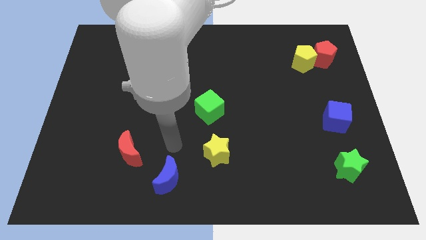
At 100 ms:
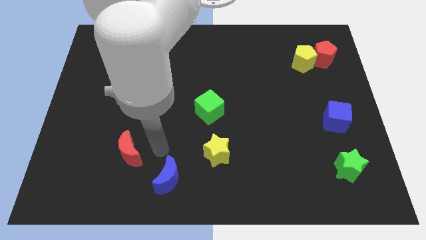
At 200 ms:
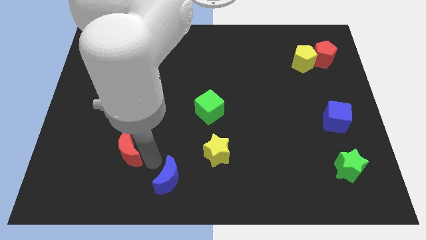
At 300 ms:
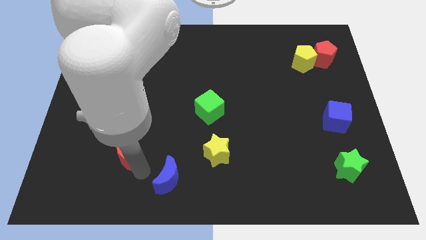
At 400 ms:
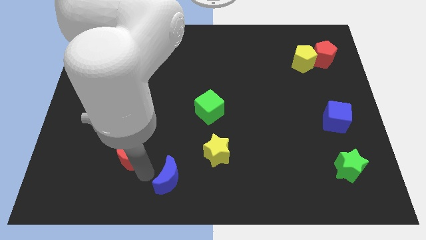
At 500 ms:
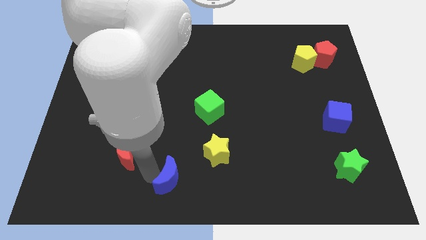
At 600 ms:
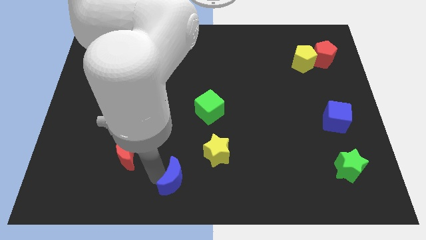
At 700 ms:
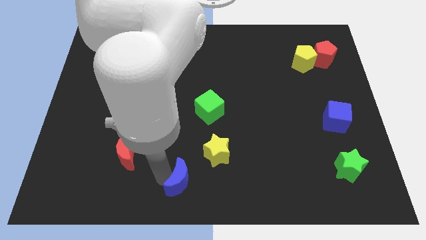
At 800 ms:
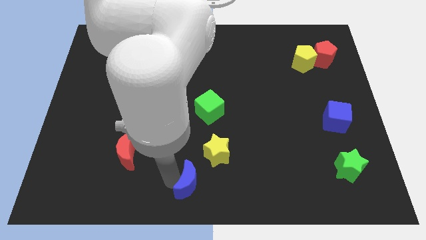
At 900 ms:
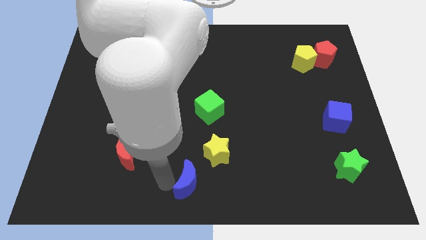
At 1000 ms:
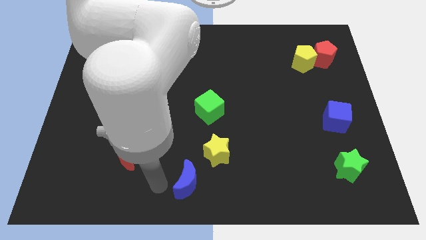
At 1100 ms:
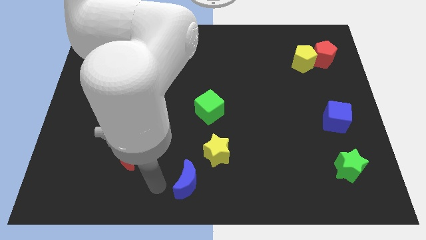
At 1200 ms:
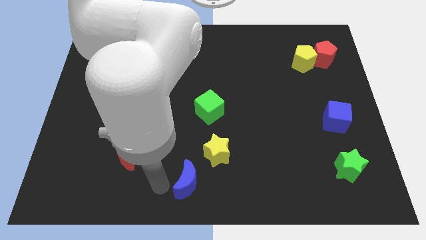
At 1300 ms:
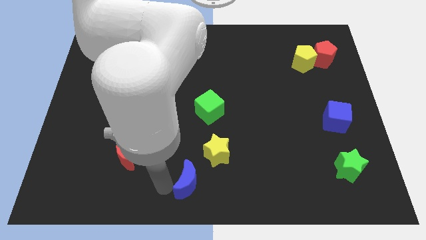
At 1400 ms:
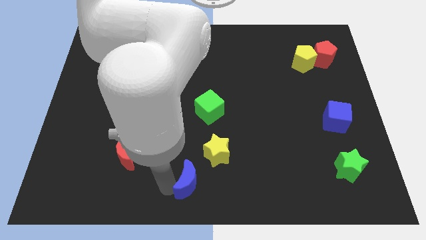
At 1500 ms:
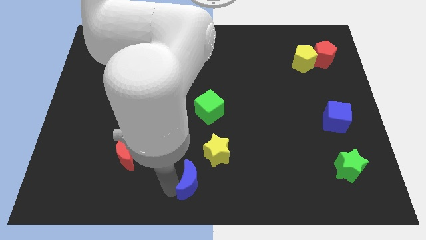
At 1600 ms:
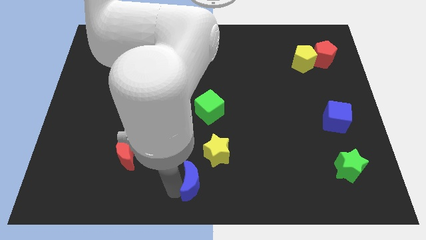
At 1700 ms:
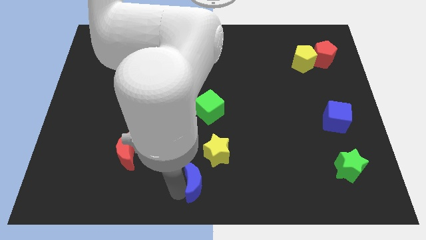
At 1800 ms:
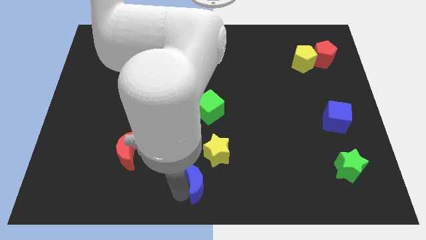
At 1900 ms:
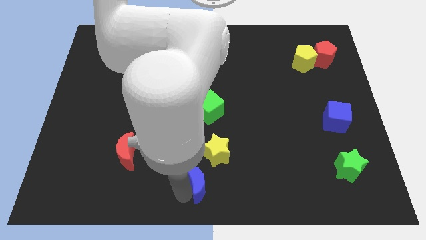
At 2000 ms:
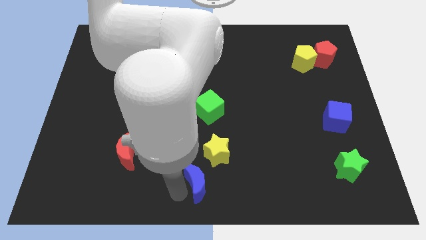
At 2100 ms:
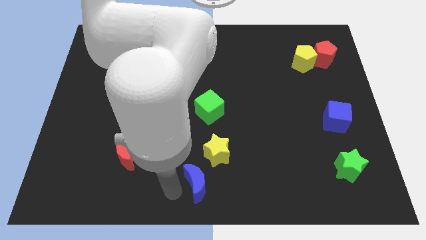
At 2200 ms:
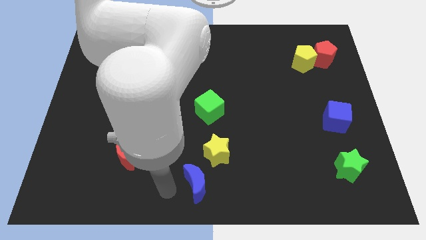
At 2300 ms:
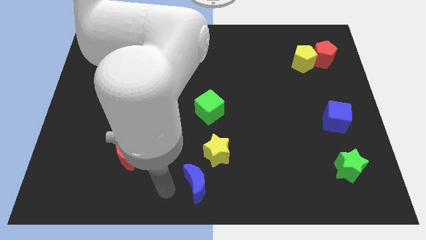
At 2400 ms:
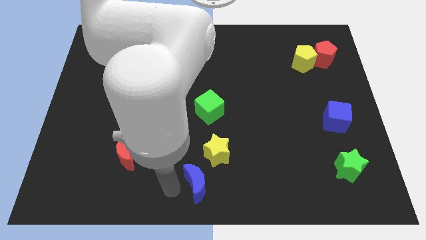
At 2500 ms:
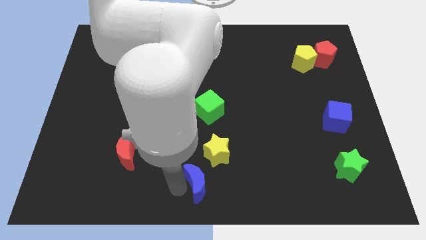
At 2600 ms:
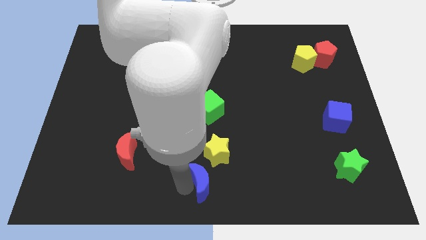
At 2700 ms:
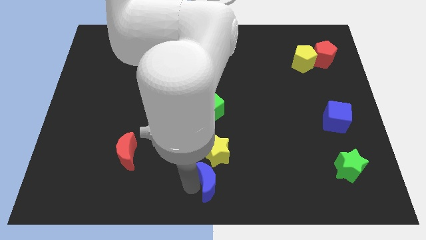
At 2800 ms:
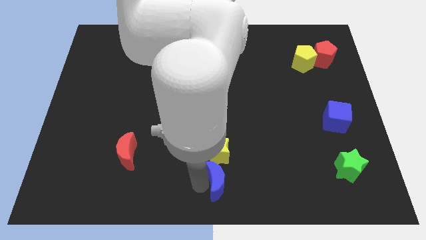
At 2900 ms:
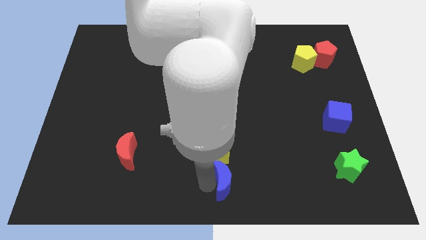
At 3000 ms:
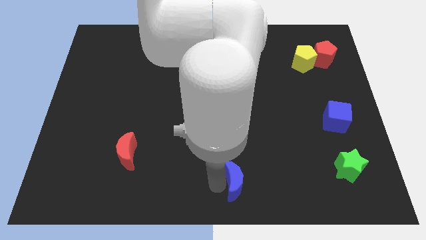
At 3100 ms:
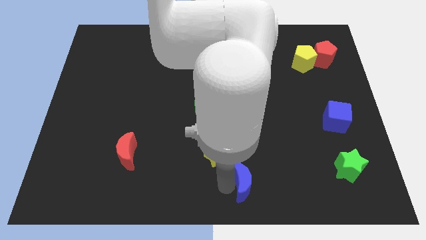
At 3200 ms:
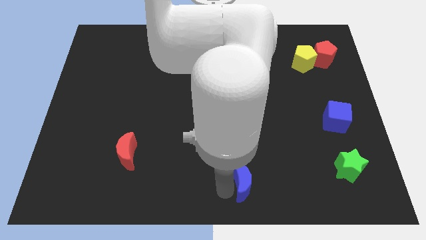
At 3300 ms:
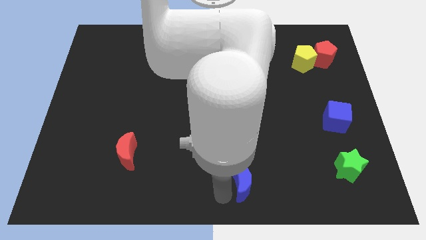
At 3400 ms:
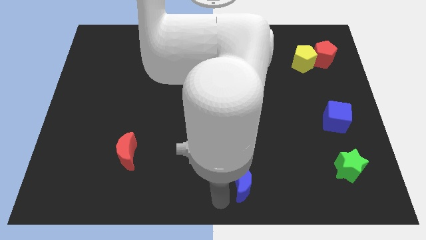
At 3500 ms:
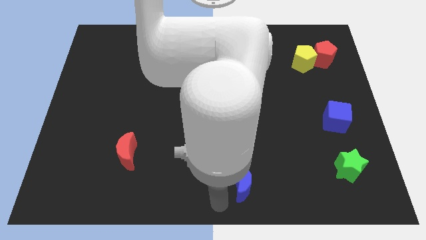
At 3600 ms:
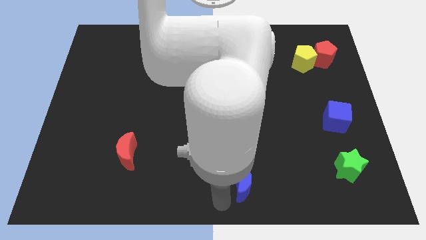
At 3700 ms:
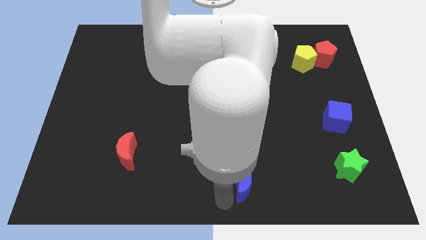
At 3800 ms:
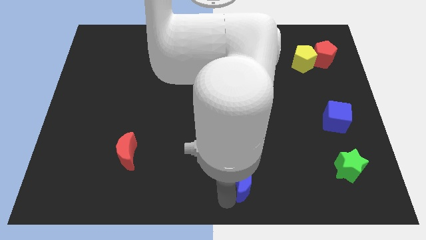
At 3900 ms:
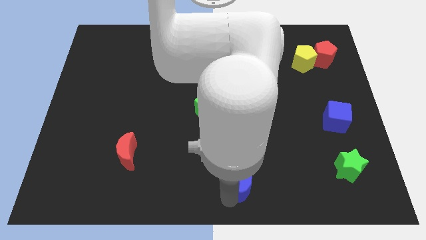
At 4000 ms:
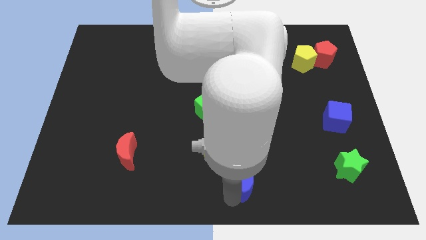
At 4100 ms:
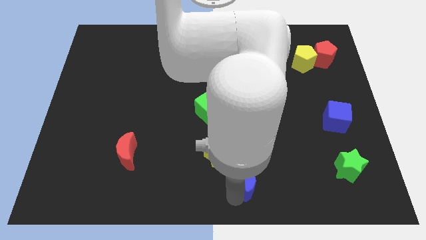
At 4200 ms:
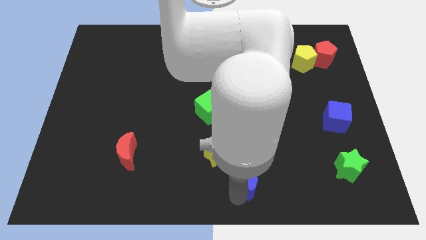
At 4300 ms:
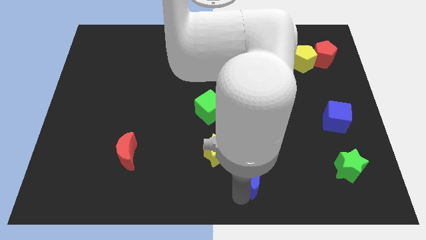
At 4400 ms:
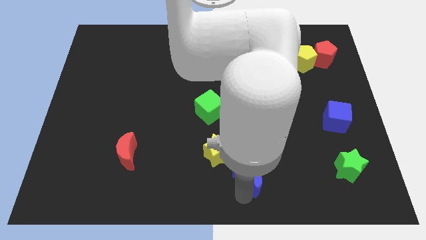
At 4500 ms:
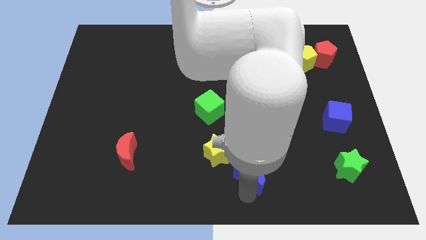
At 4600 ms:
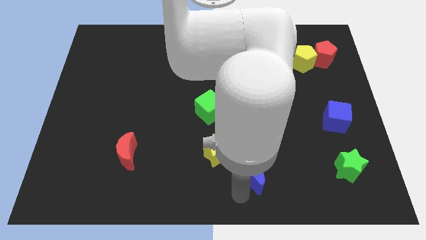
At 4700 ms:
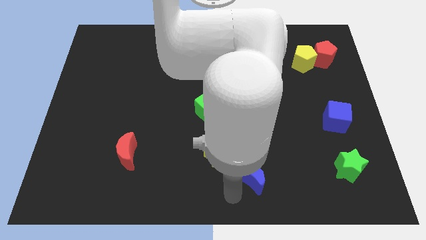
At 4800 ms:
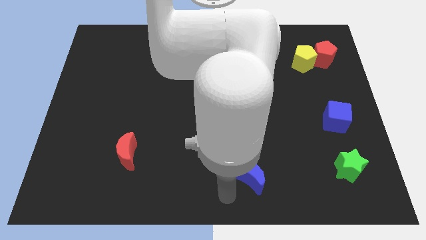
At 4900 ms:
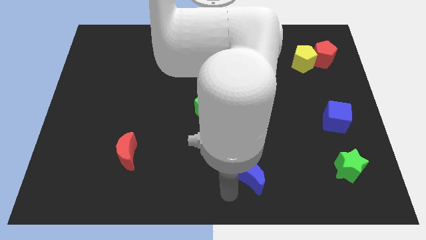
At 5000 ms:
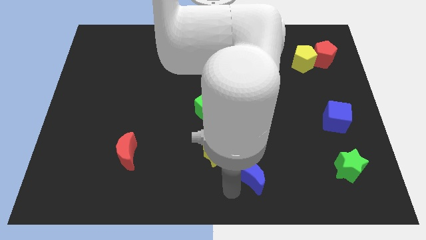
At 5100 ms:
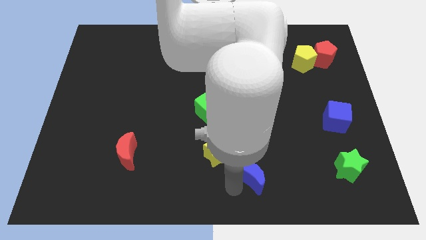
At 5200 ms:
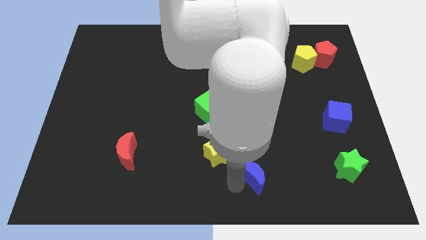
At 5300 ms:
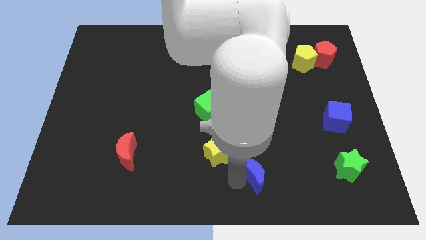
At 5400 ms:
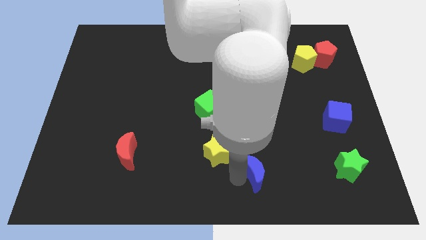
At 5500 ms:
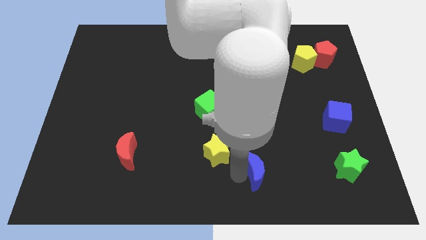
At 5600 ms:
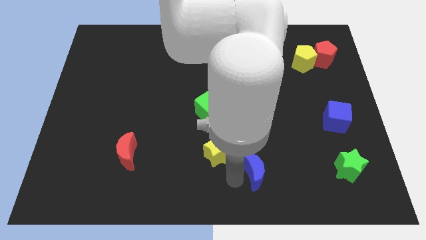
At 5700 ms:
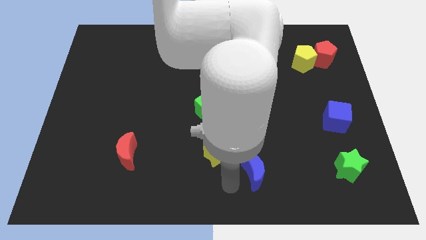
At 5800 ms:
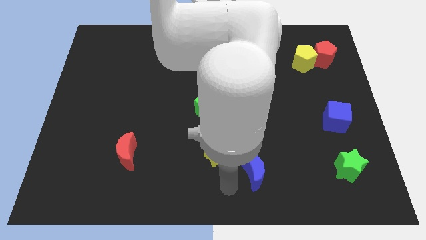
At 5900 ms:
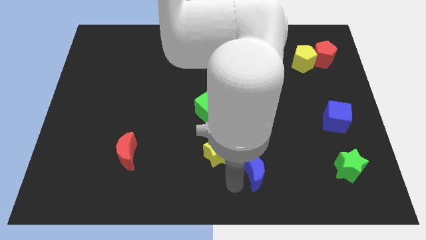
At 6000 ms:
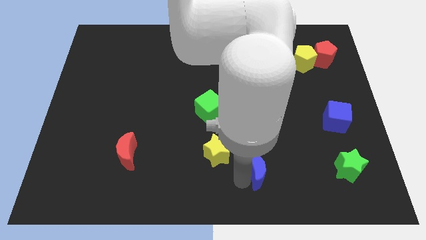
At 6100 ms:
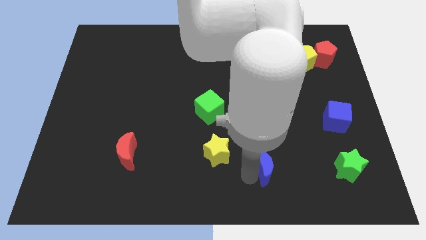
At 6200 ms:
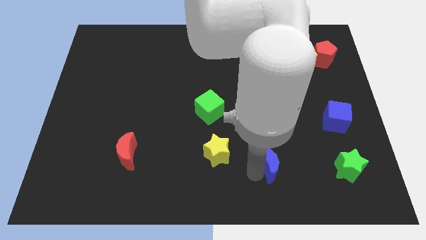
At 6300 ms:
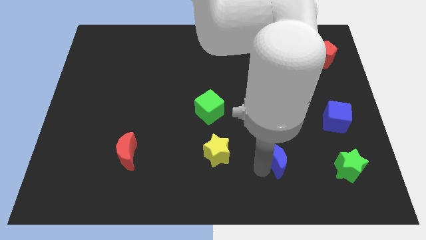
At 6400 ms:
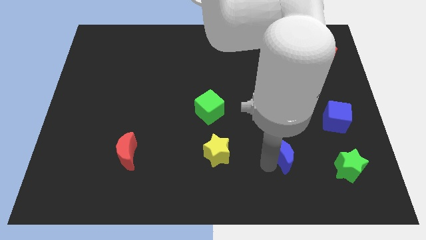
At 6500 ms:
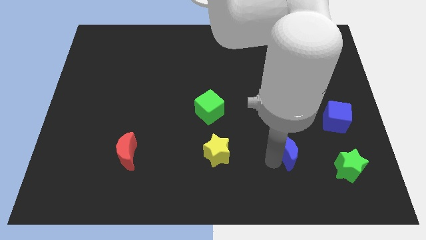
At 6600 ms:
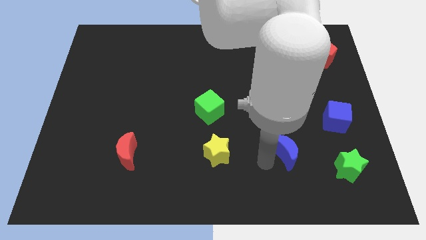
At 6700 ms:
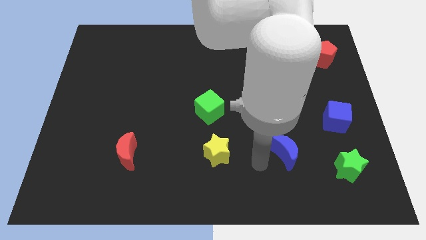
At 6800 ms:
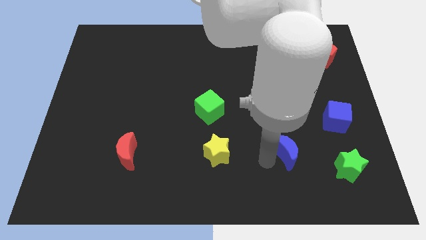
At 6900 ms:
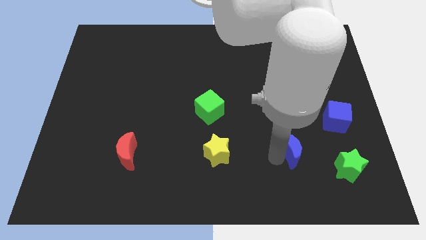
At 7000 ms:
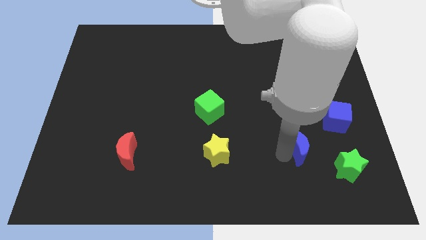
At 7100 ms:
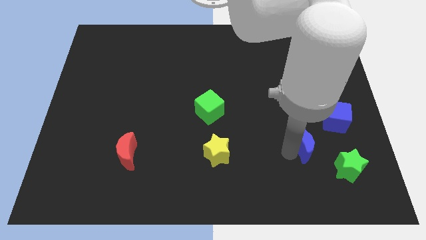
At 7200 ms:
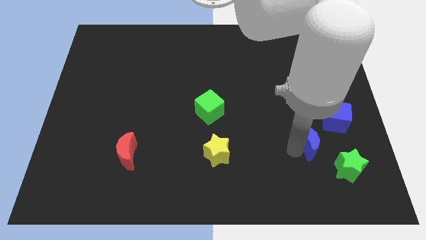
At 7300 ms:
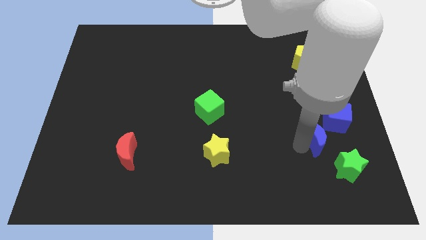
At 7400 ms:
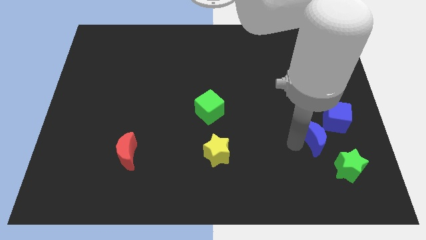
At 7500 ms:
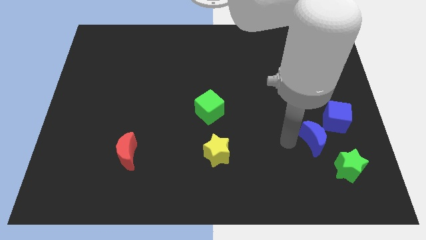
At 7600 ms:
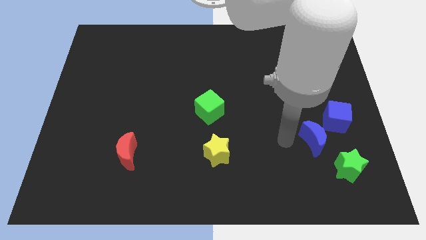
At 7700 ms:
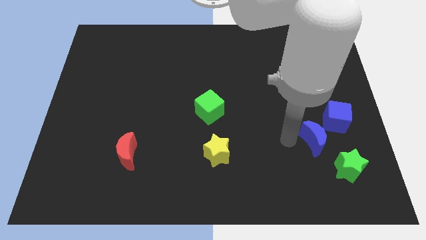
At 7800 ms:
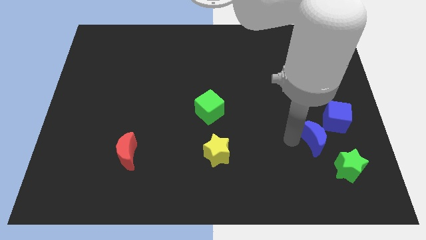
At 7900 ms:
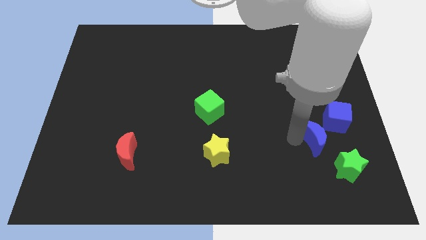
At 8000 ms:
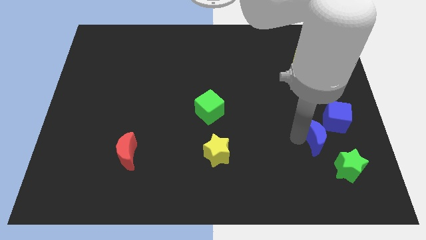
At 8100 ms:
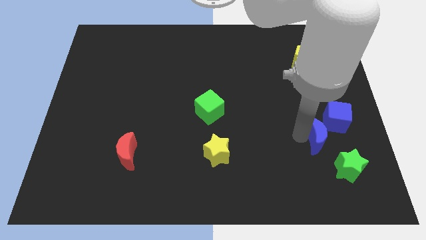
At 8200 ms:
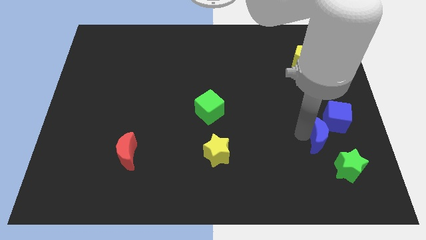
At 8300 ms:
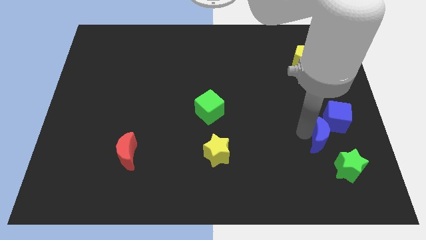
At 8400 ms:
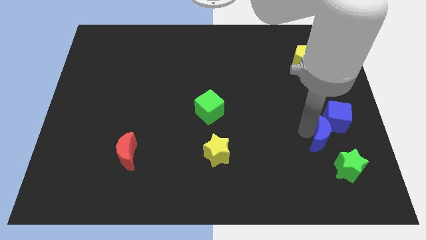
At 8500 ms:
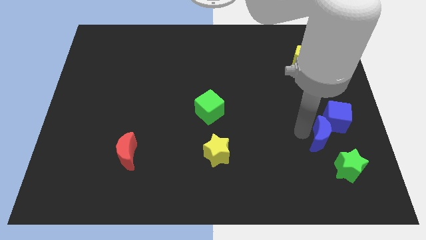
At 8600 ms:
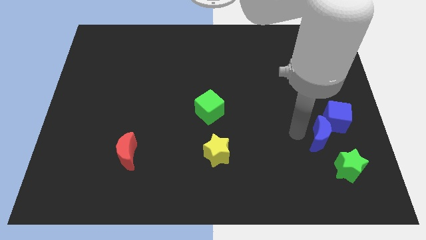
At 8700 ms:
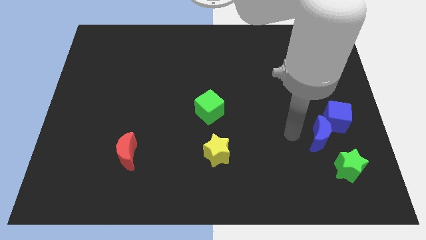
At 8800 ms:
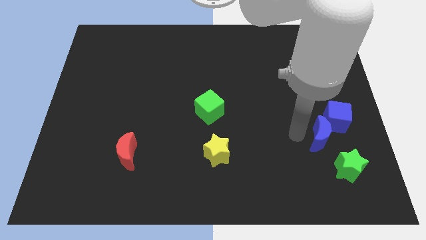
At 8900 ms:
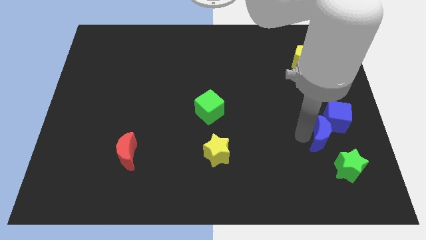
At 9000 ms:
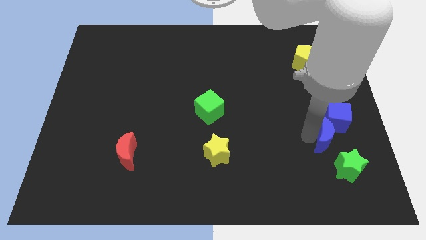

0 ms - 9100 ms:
move the blue moon to the blue cube
